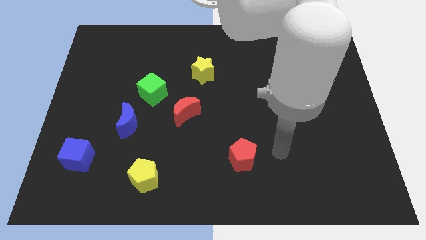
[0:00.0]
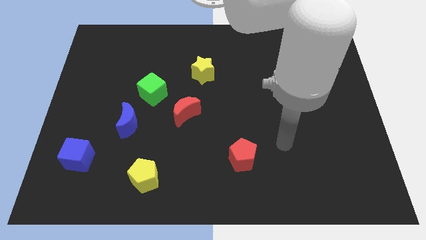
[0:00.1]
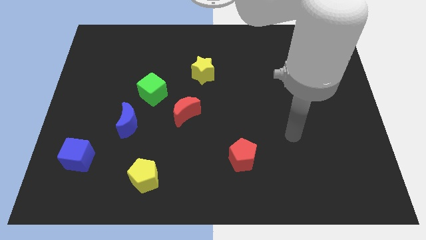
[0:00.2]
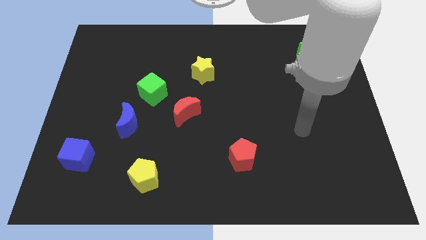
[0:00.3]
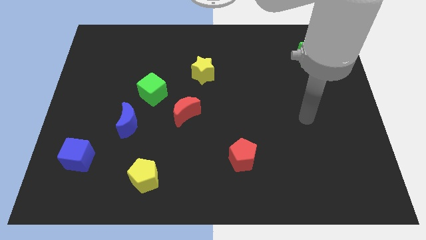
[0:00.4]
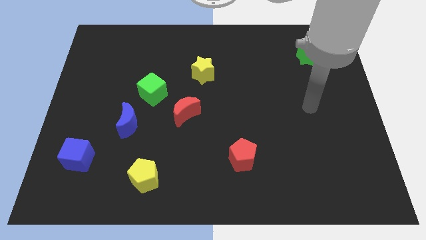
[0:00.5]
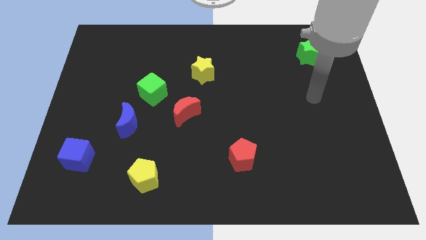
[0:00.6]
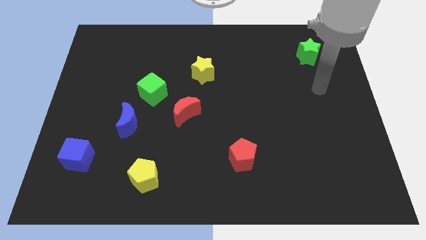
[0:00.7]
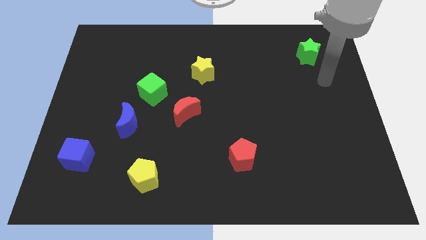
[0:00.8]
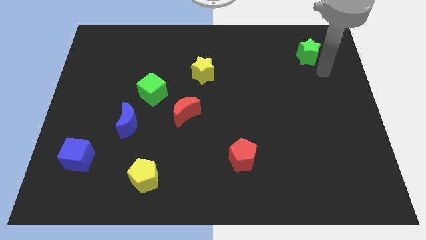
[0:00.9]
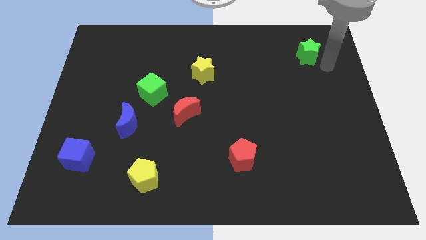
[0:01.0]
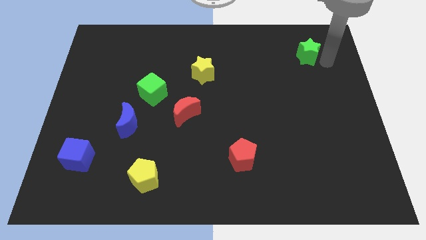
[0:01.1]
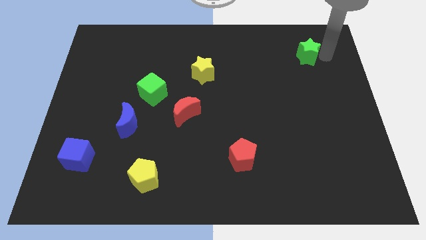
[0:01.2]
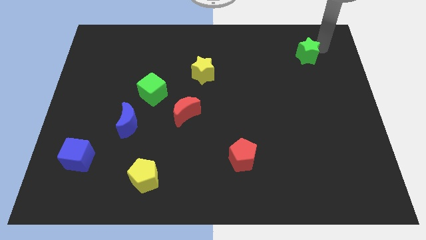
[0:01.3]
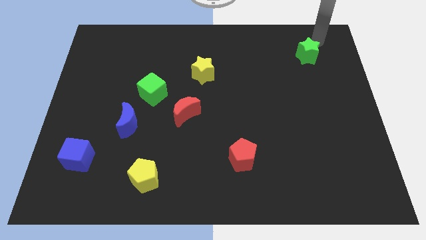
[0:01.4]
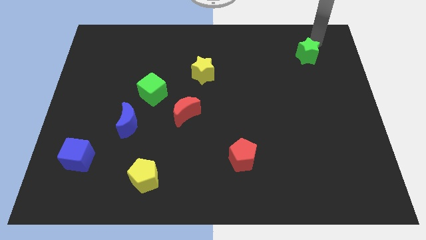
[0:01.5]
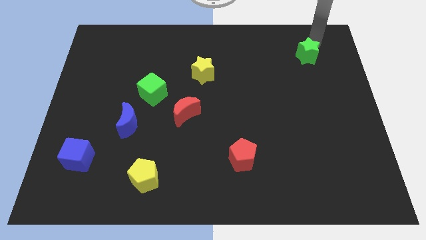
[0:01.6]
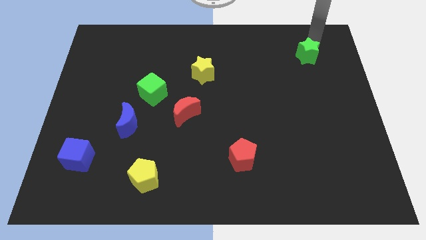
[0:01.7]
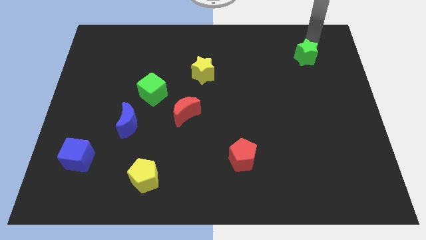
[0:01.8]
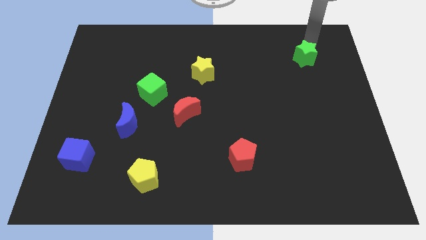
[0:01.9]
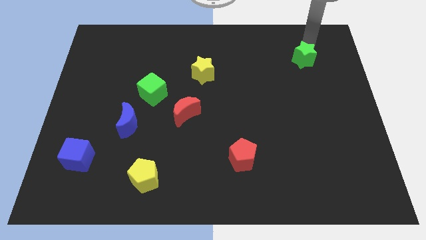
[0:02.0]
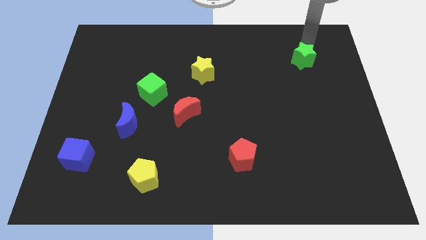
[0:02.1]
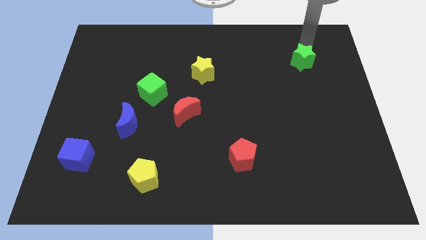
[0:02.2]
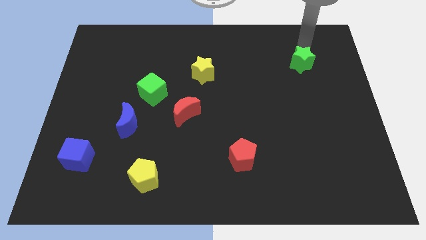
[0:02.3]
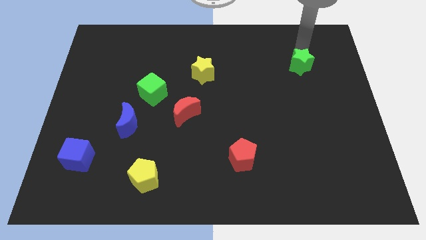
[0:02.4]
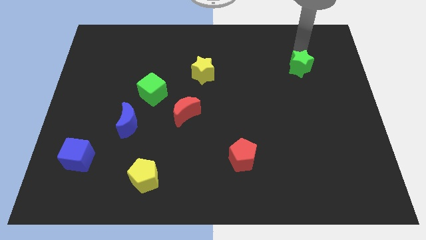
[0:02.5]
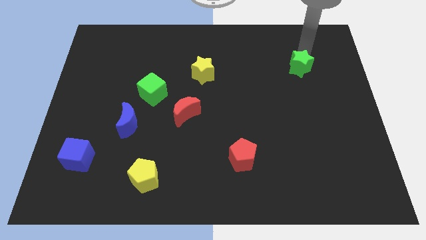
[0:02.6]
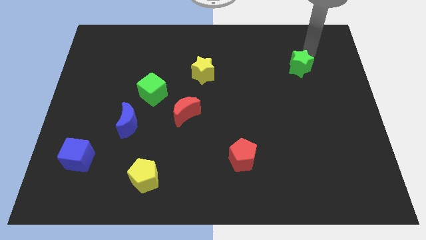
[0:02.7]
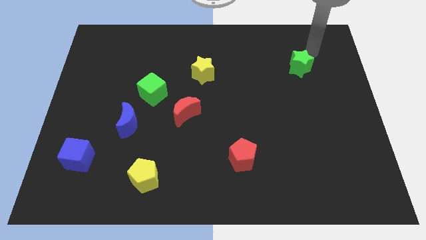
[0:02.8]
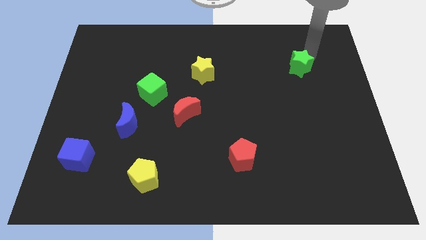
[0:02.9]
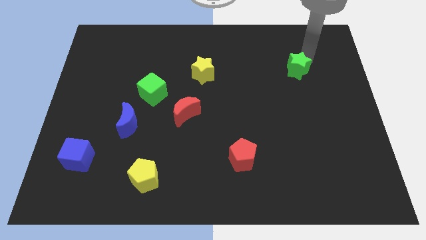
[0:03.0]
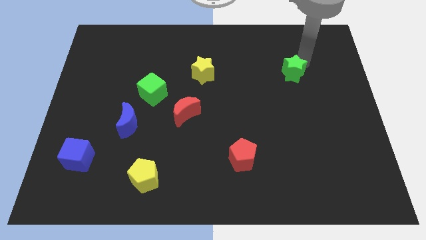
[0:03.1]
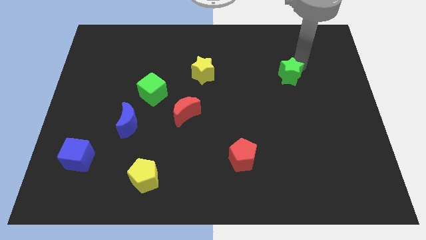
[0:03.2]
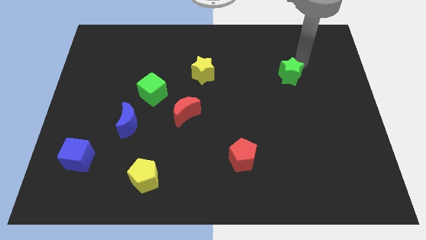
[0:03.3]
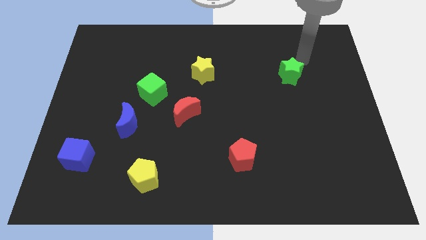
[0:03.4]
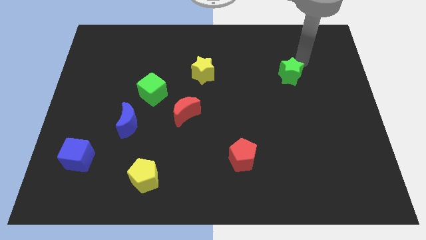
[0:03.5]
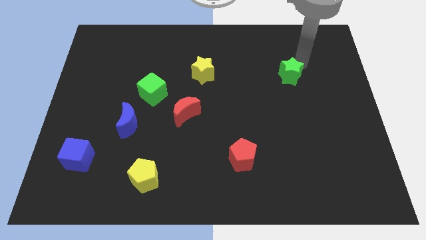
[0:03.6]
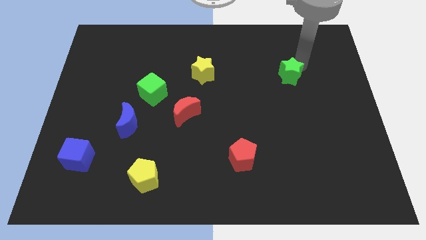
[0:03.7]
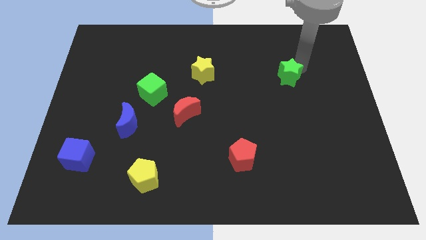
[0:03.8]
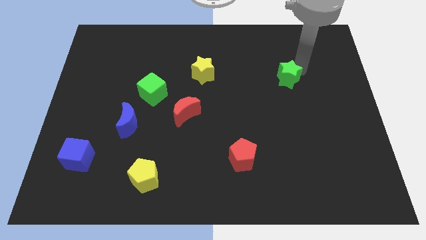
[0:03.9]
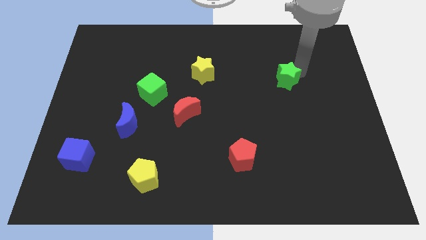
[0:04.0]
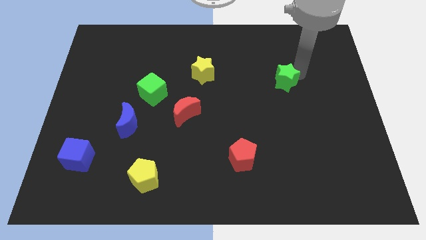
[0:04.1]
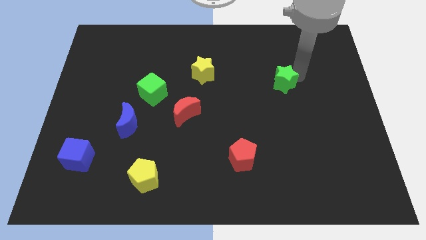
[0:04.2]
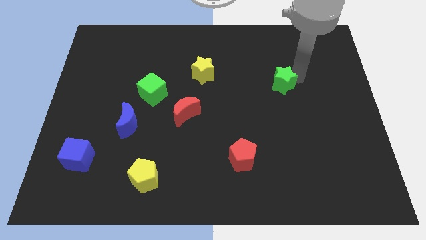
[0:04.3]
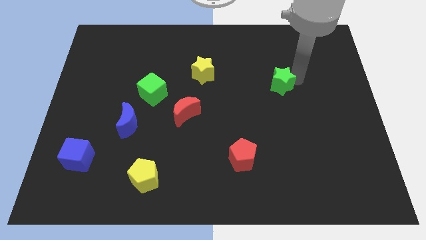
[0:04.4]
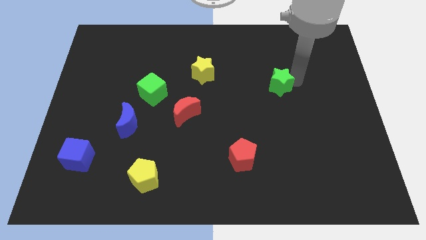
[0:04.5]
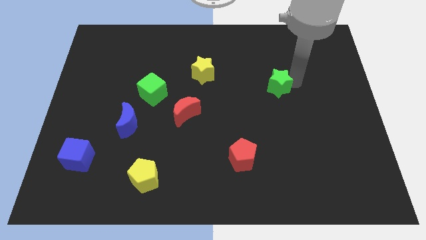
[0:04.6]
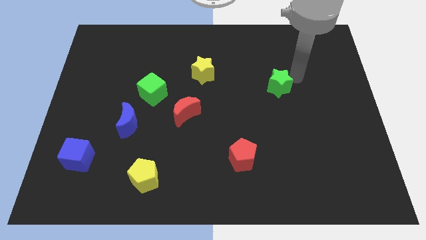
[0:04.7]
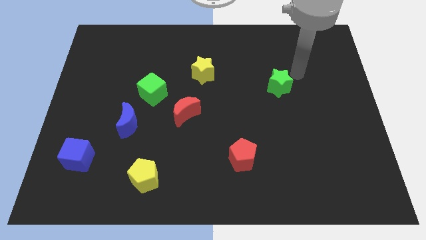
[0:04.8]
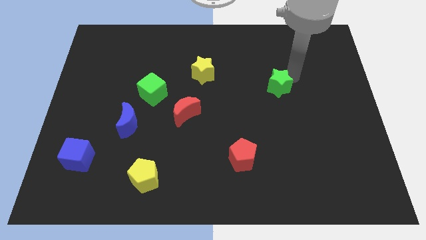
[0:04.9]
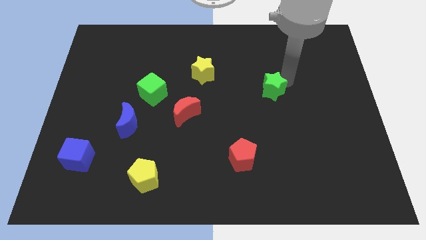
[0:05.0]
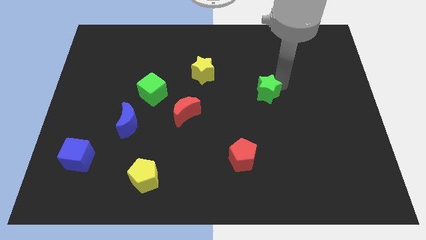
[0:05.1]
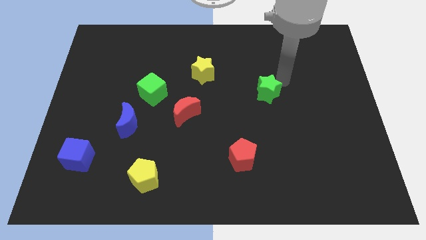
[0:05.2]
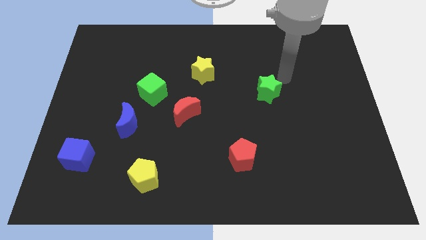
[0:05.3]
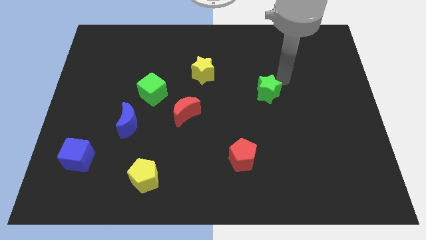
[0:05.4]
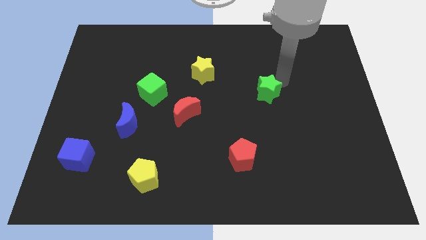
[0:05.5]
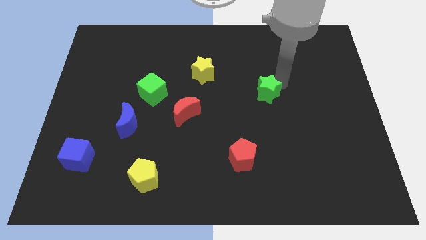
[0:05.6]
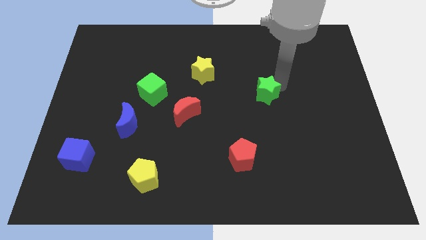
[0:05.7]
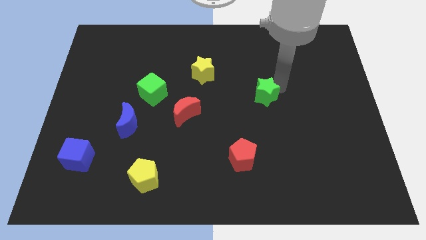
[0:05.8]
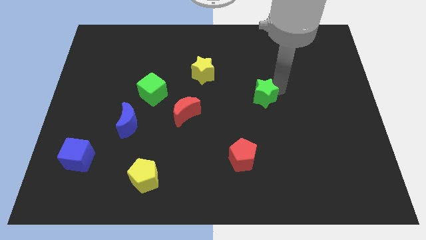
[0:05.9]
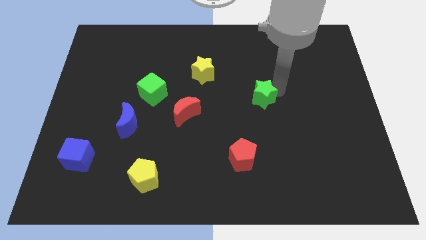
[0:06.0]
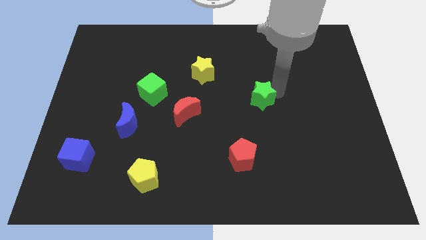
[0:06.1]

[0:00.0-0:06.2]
push the green star downwards and then to the left

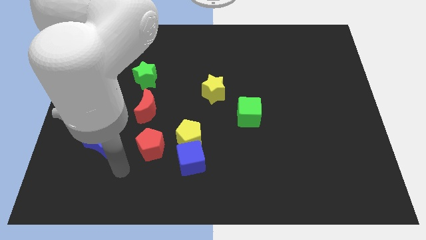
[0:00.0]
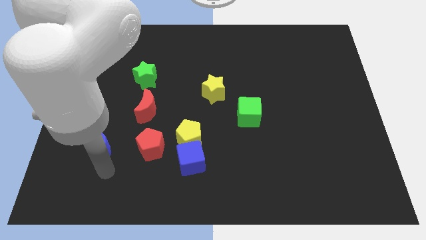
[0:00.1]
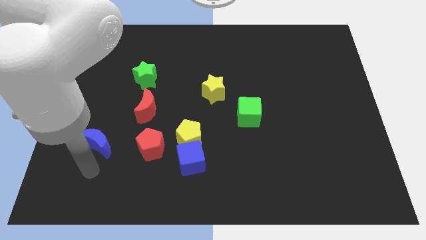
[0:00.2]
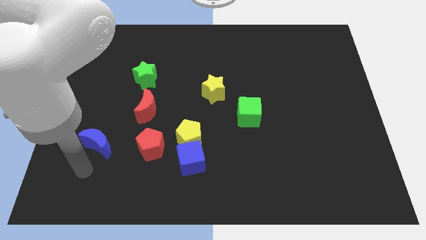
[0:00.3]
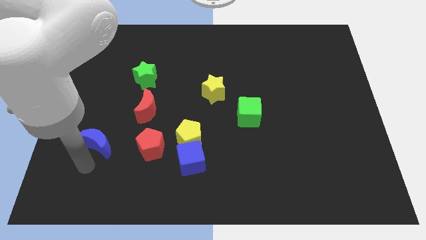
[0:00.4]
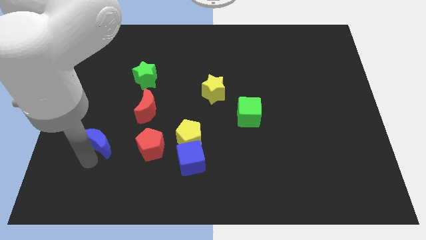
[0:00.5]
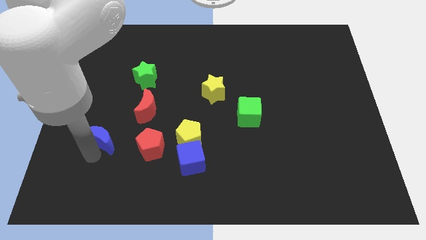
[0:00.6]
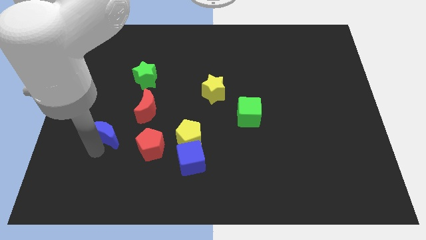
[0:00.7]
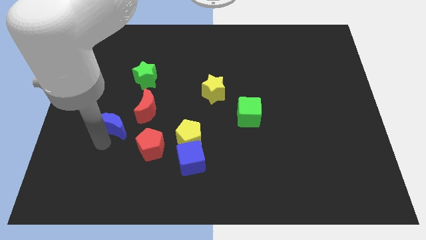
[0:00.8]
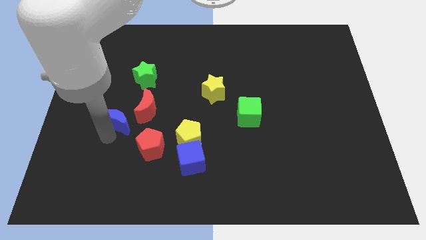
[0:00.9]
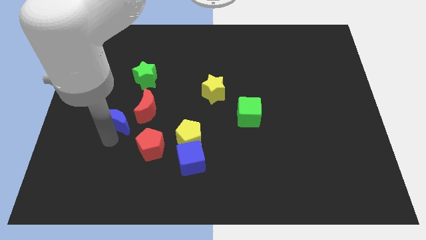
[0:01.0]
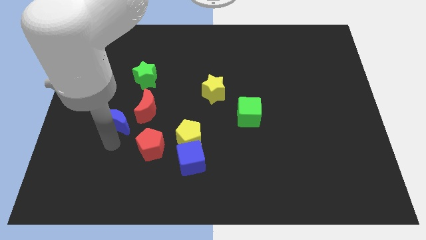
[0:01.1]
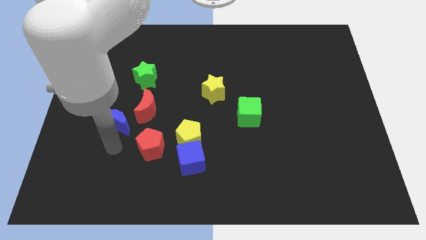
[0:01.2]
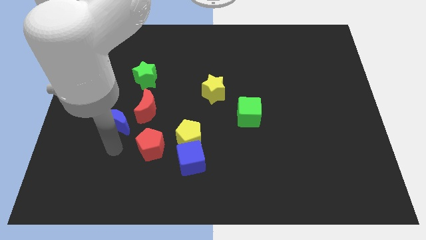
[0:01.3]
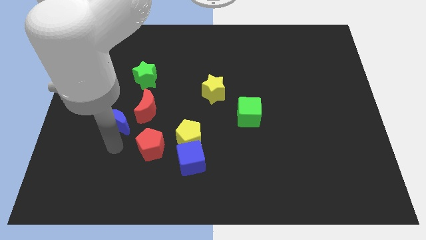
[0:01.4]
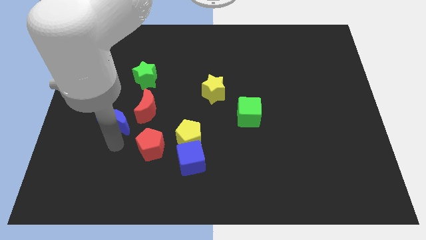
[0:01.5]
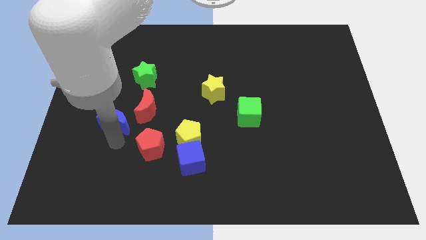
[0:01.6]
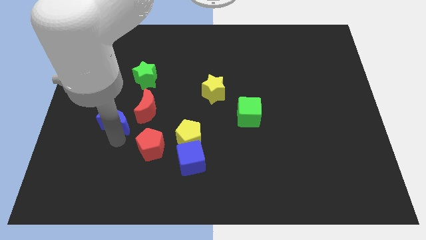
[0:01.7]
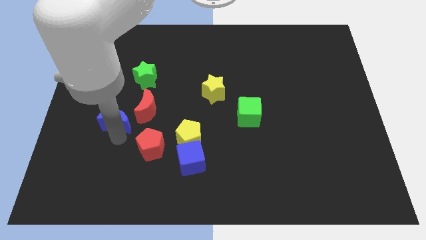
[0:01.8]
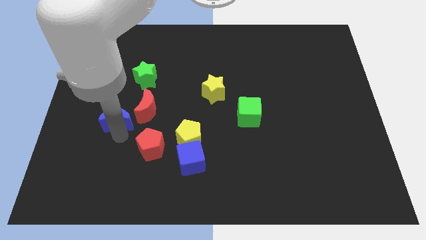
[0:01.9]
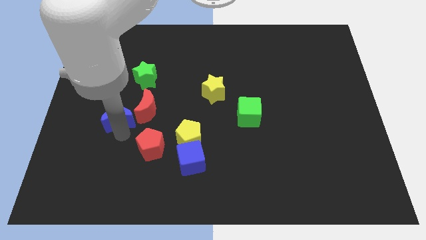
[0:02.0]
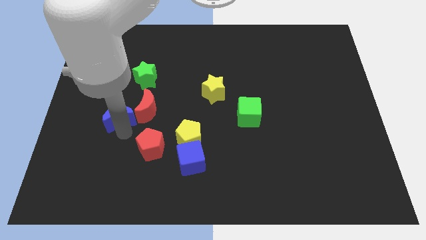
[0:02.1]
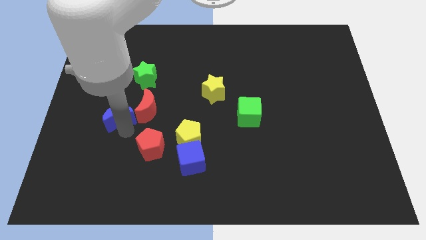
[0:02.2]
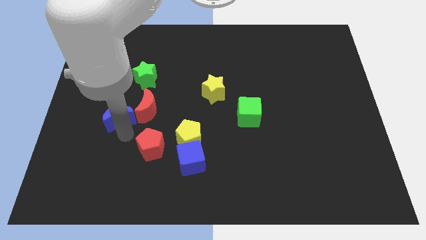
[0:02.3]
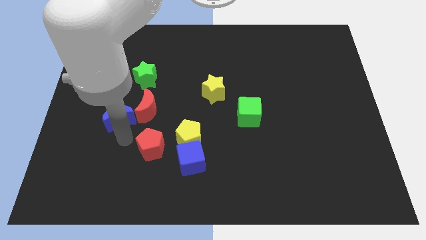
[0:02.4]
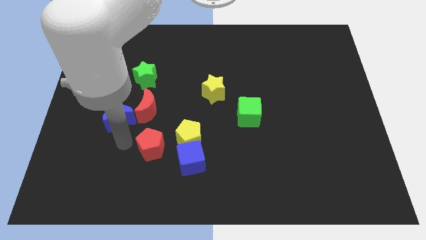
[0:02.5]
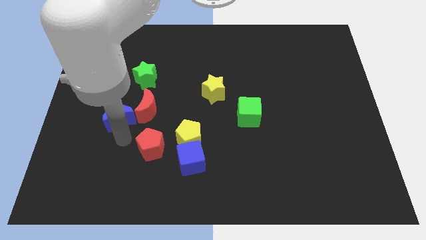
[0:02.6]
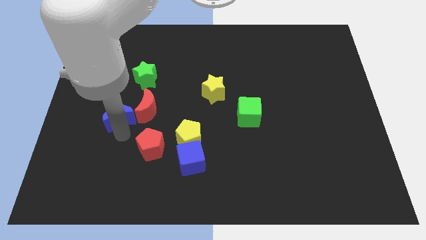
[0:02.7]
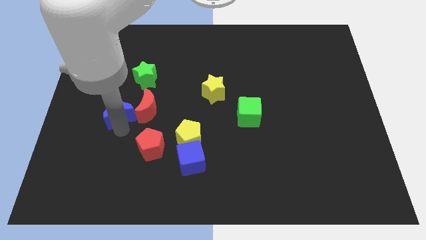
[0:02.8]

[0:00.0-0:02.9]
slightly slide the blue moon upwards
